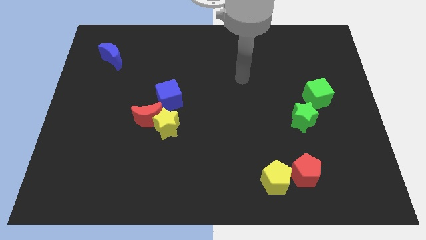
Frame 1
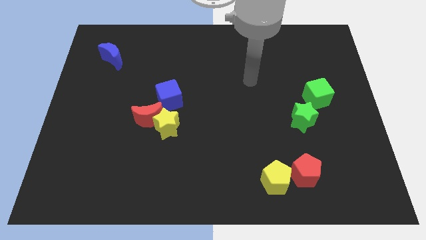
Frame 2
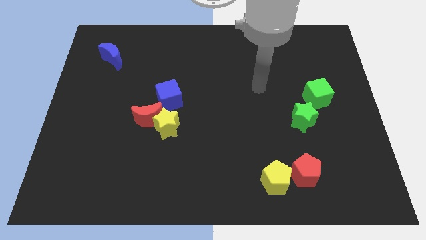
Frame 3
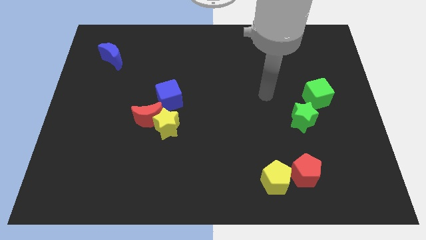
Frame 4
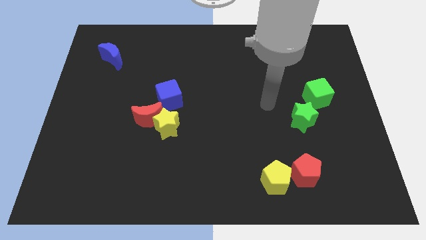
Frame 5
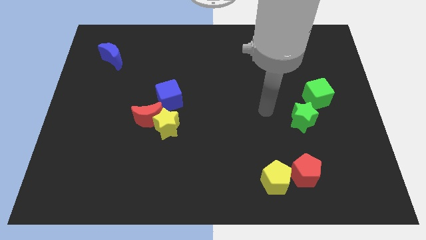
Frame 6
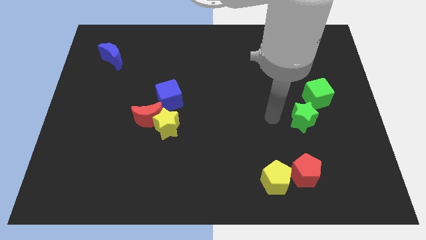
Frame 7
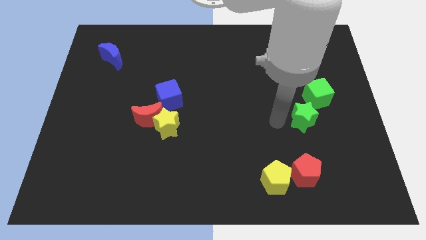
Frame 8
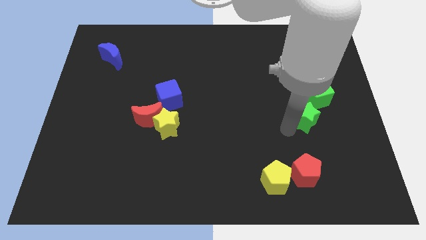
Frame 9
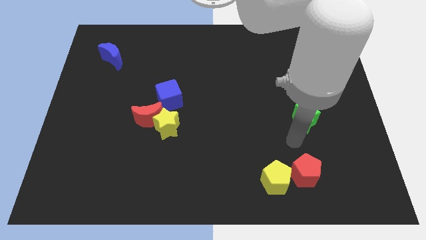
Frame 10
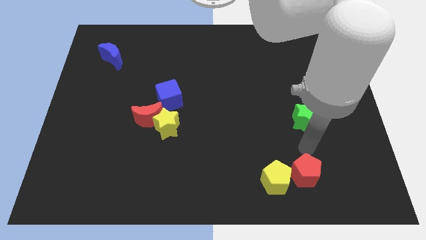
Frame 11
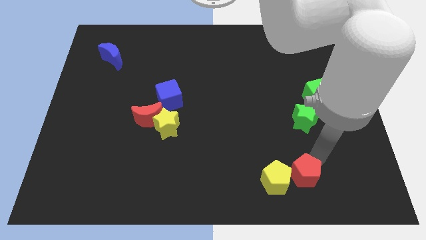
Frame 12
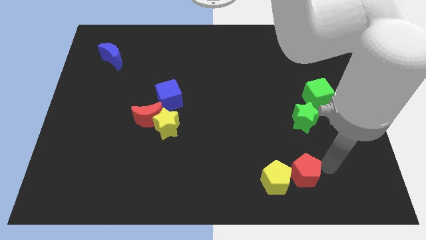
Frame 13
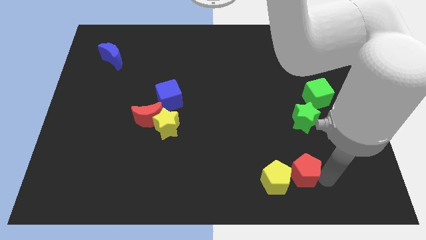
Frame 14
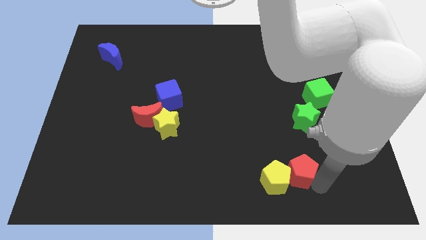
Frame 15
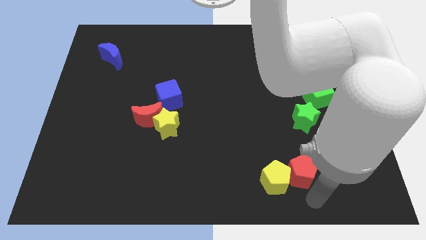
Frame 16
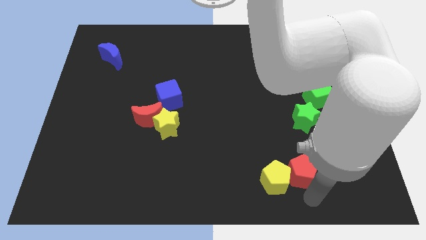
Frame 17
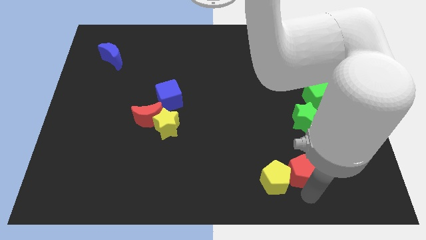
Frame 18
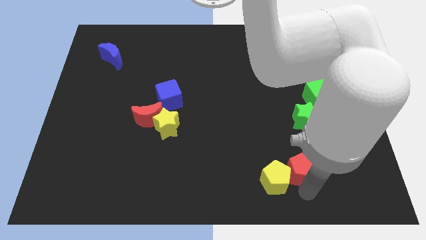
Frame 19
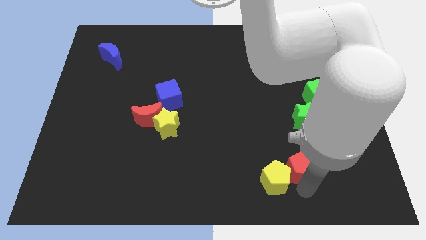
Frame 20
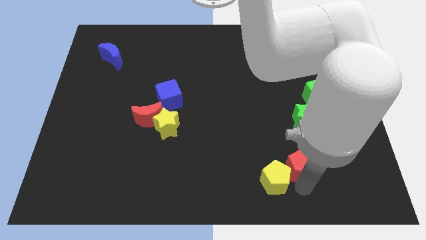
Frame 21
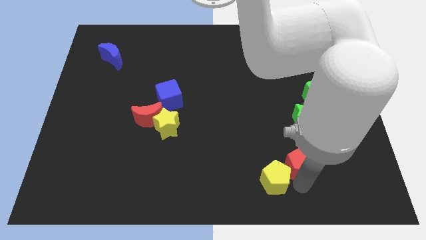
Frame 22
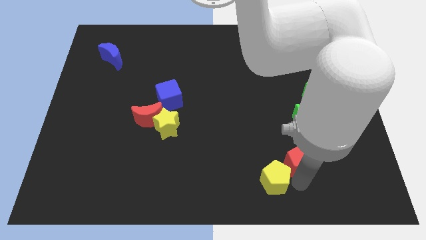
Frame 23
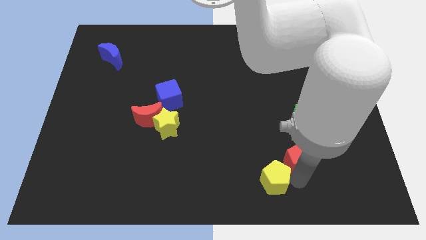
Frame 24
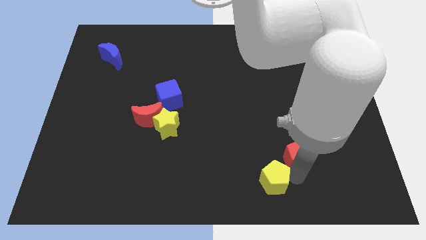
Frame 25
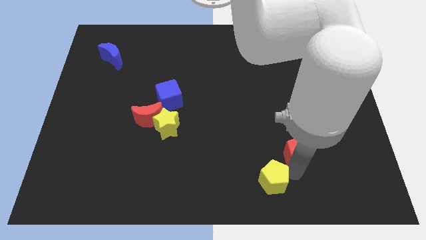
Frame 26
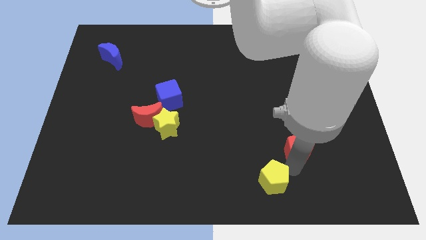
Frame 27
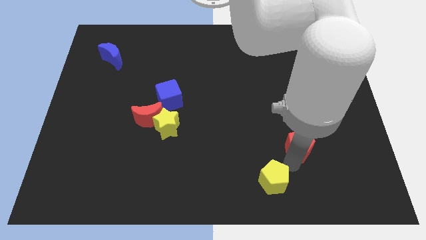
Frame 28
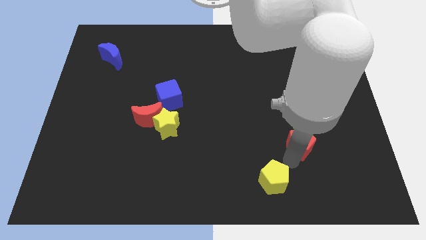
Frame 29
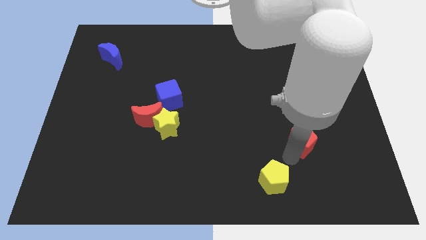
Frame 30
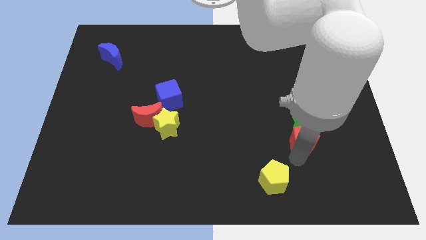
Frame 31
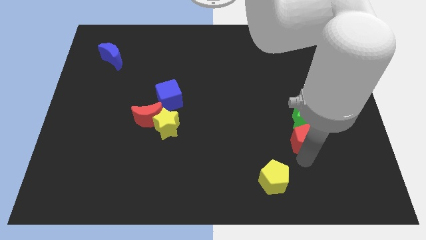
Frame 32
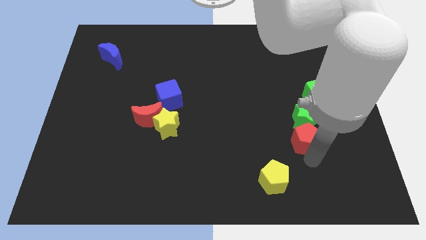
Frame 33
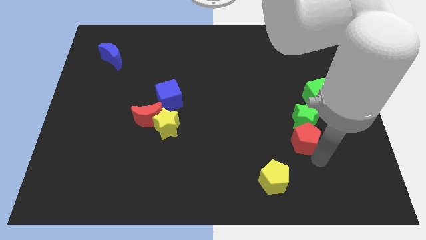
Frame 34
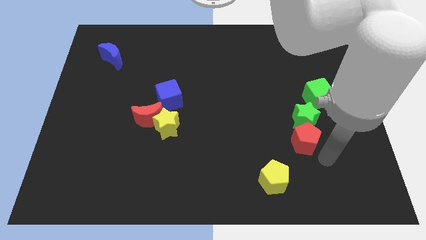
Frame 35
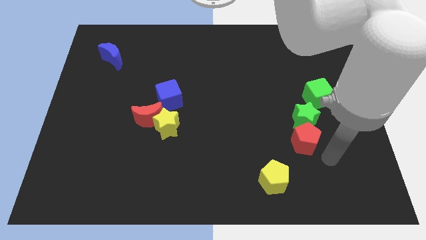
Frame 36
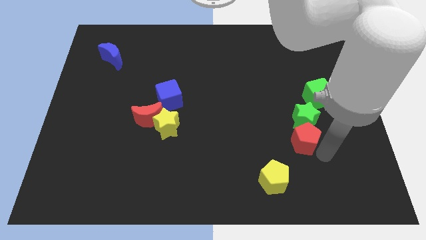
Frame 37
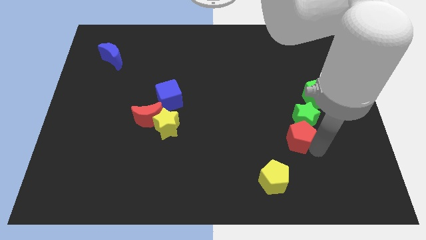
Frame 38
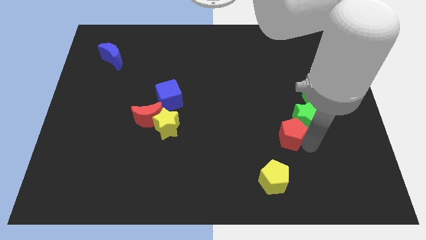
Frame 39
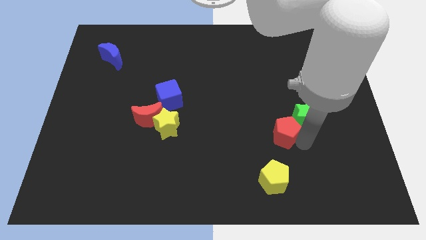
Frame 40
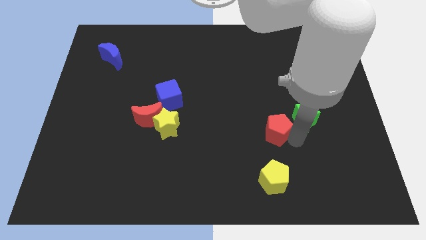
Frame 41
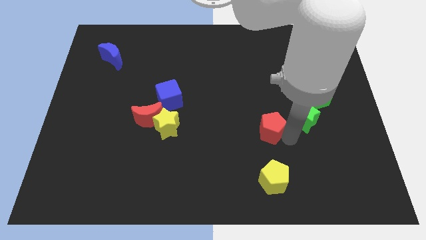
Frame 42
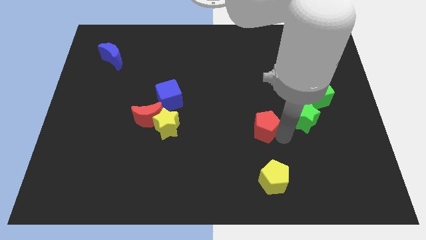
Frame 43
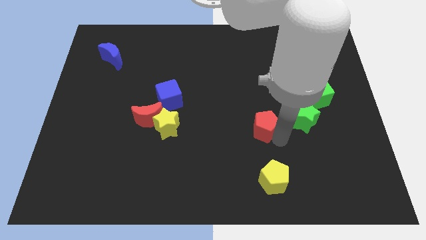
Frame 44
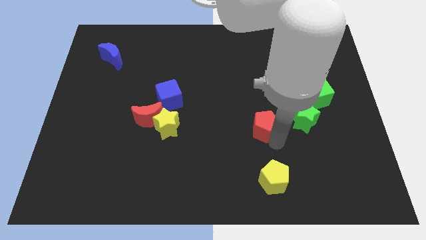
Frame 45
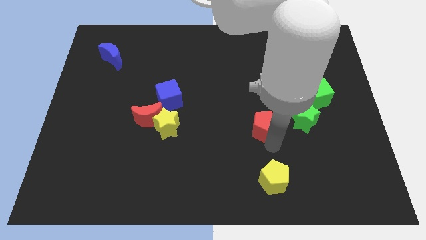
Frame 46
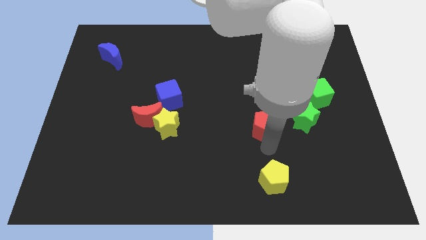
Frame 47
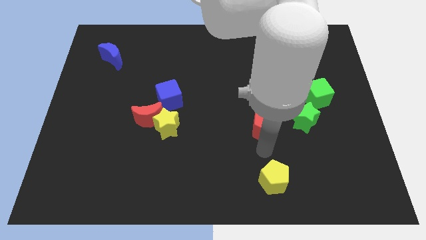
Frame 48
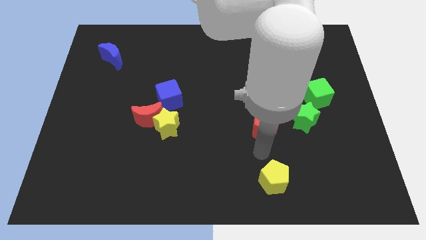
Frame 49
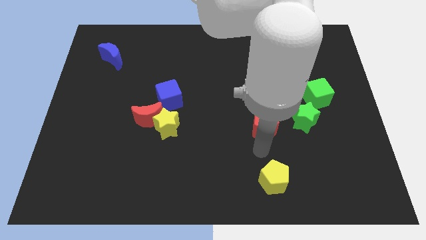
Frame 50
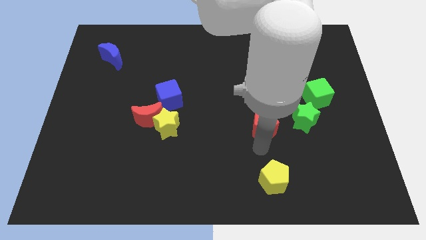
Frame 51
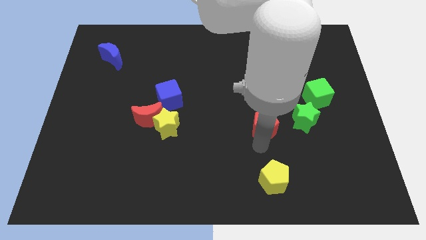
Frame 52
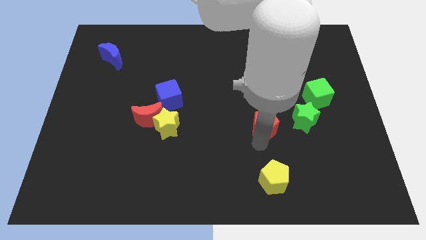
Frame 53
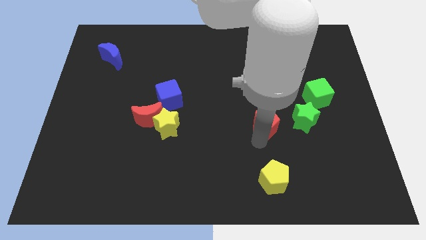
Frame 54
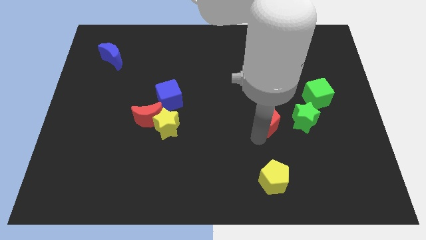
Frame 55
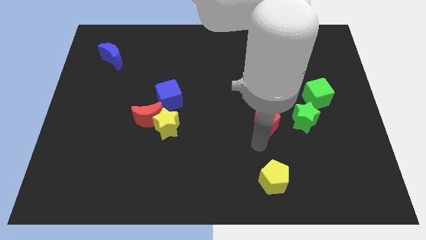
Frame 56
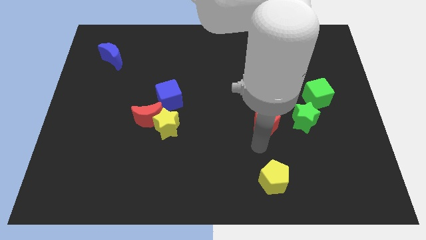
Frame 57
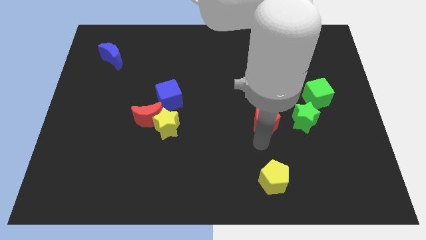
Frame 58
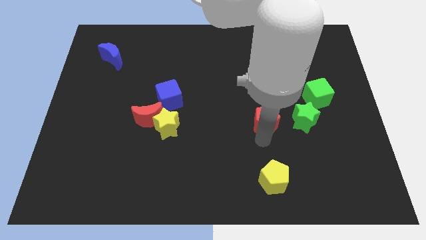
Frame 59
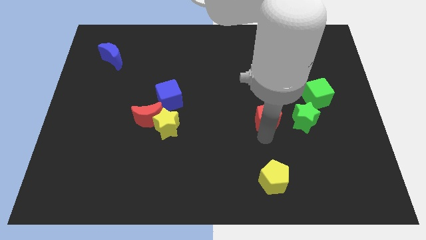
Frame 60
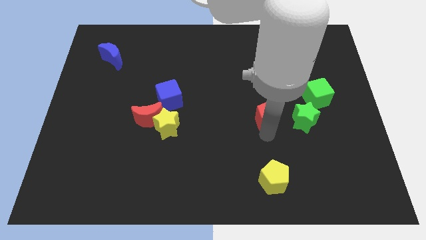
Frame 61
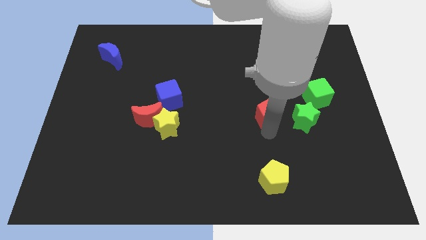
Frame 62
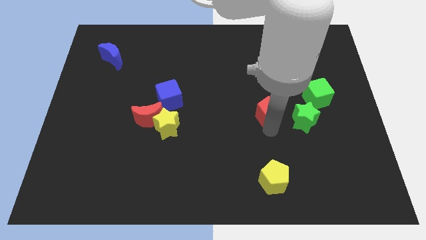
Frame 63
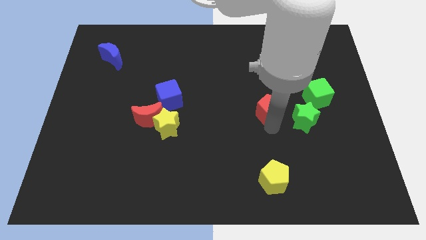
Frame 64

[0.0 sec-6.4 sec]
move the red pentagon to the left of the green cube

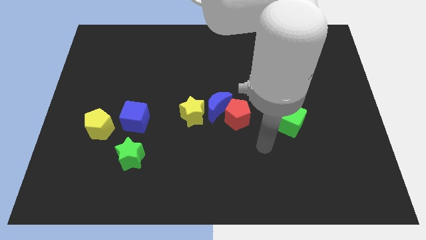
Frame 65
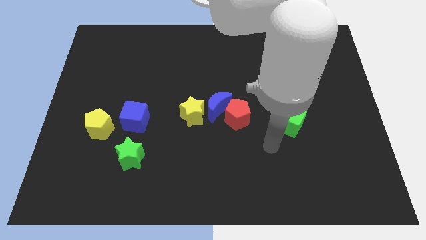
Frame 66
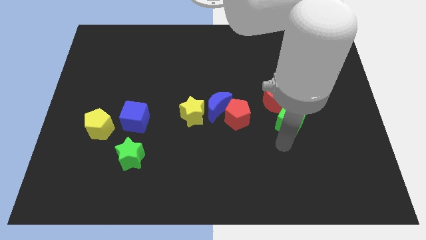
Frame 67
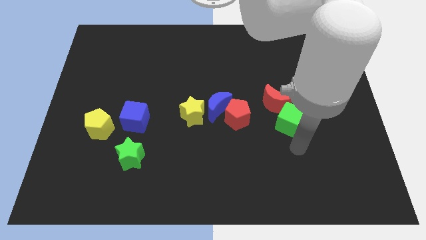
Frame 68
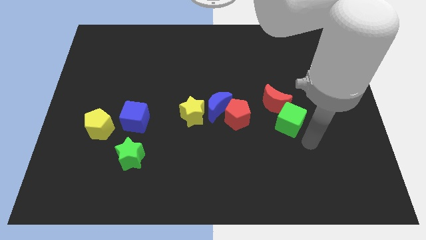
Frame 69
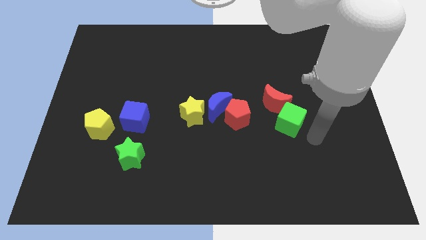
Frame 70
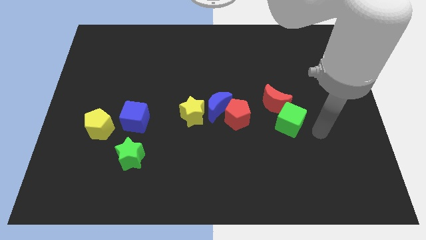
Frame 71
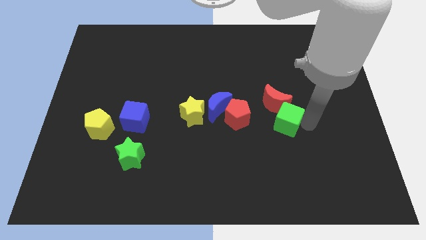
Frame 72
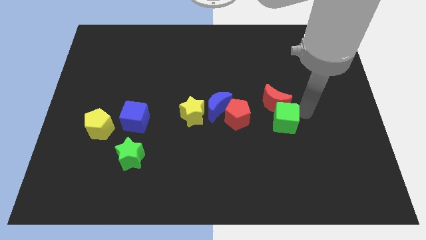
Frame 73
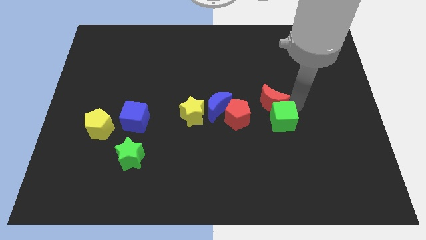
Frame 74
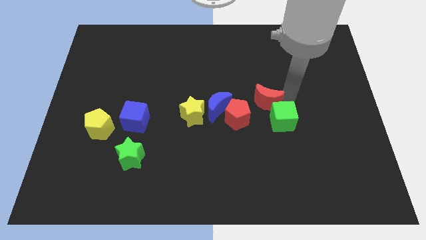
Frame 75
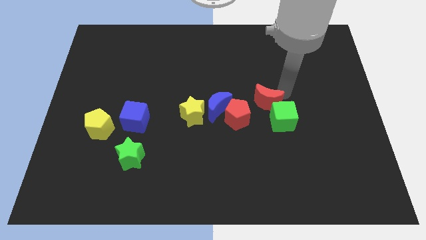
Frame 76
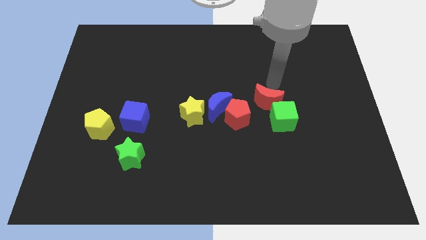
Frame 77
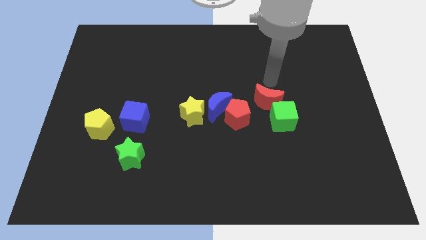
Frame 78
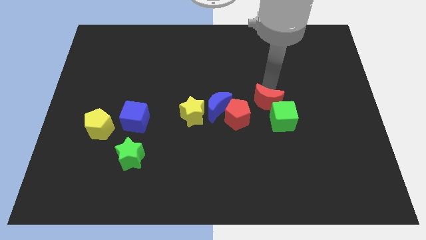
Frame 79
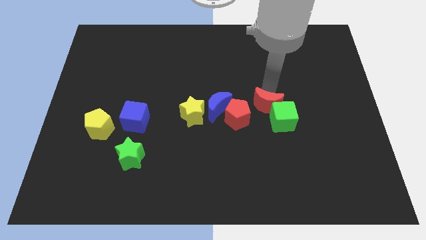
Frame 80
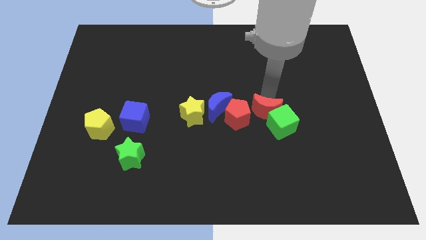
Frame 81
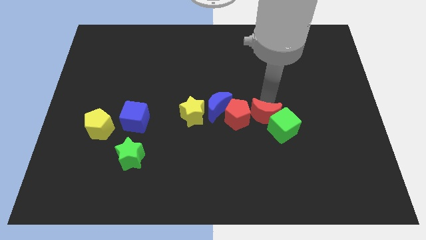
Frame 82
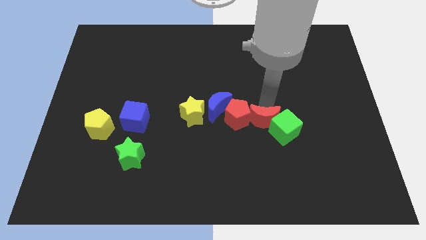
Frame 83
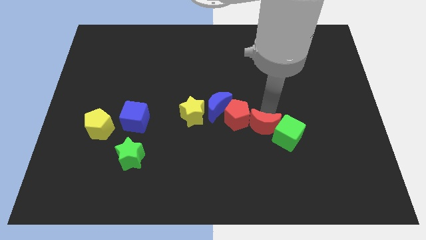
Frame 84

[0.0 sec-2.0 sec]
push the red moon to the bottom right of the blue moon
